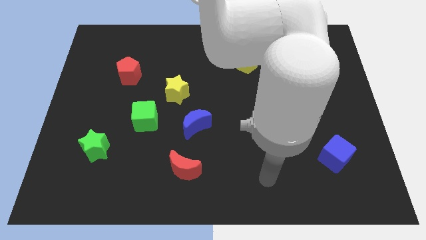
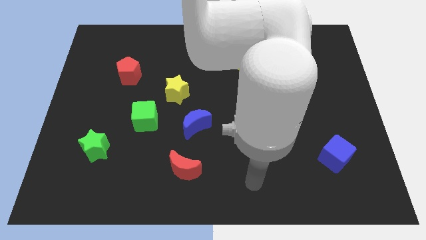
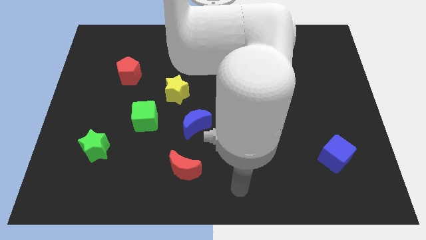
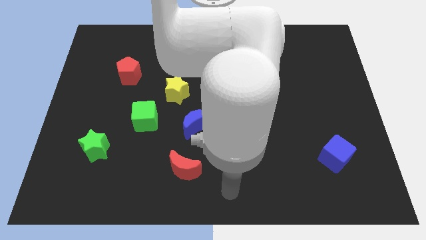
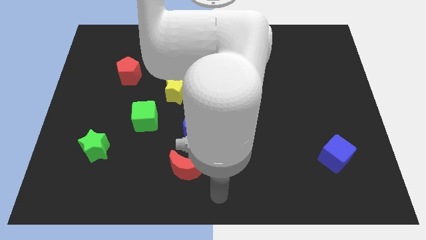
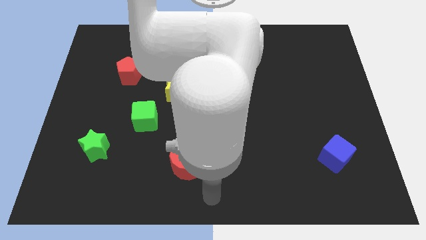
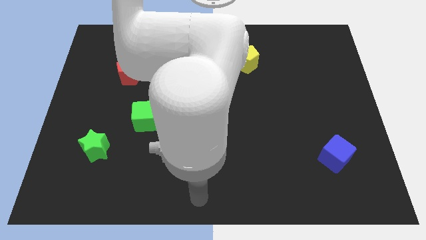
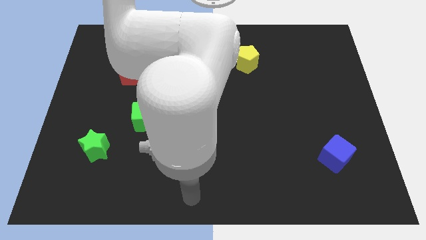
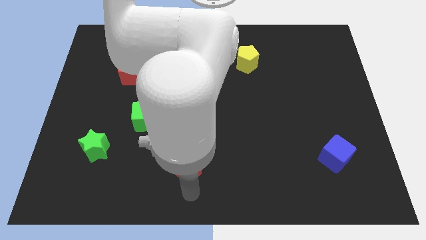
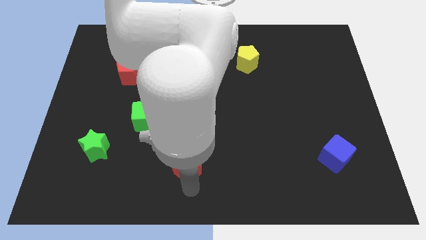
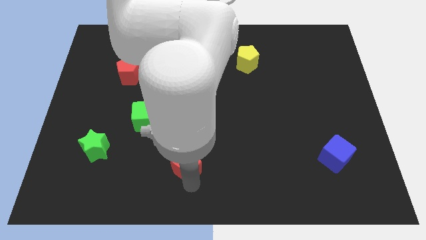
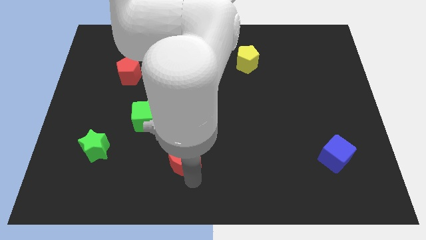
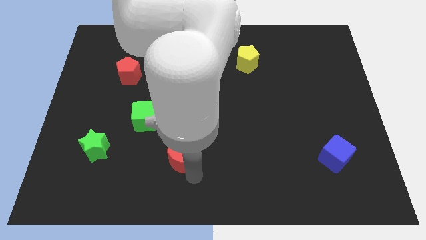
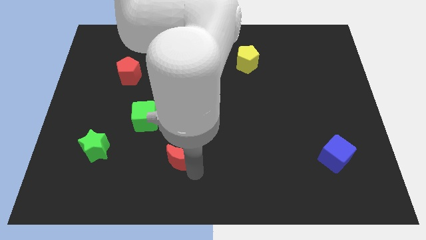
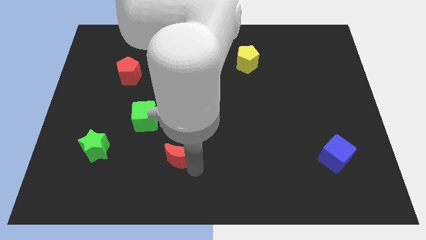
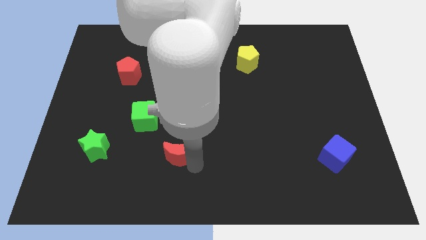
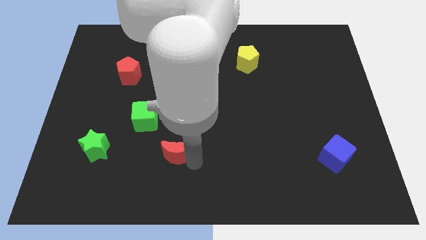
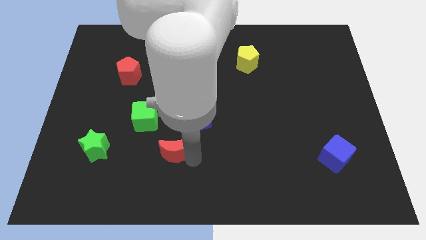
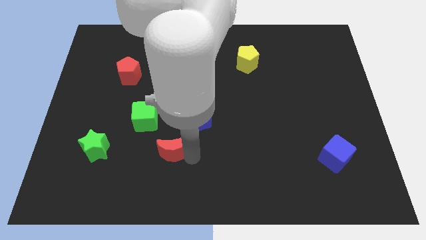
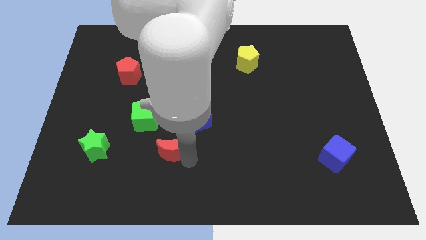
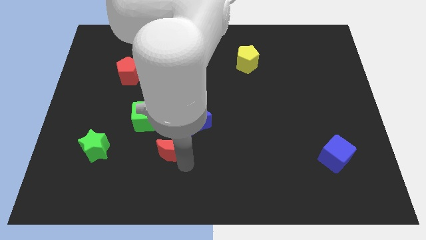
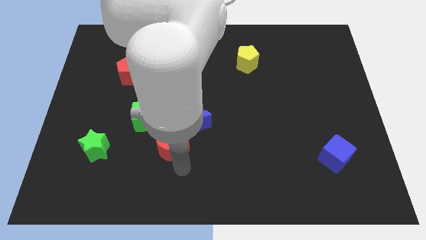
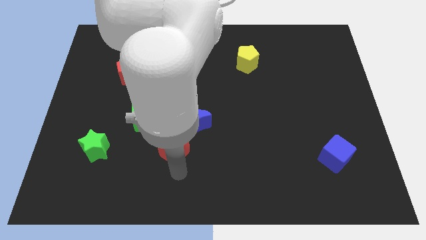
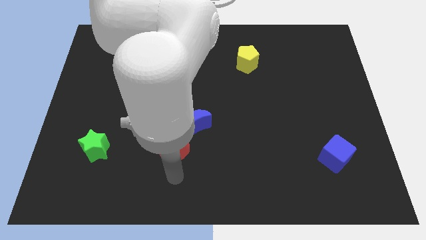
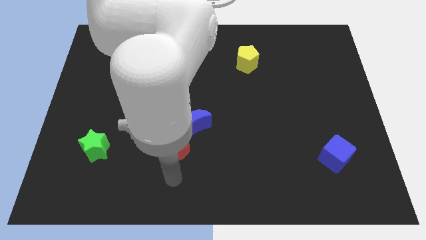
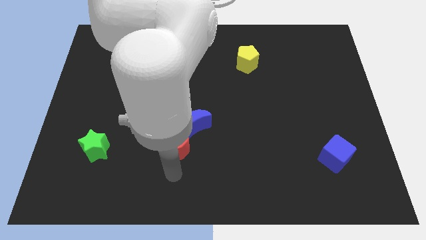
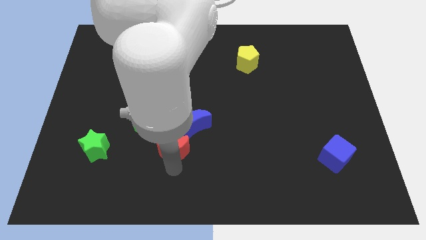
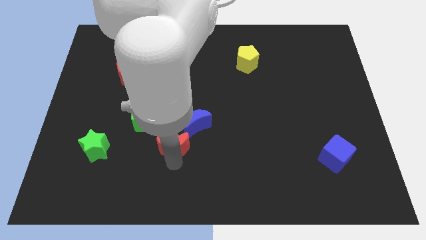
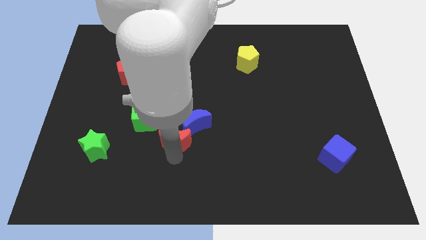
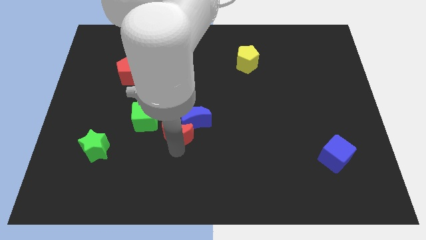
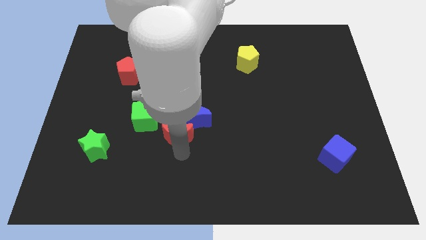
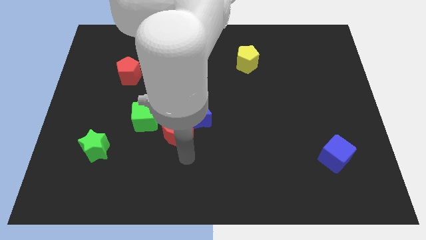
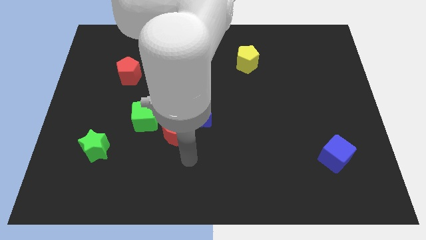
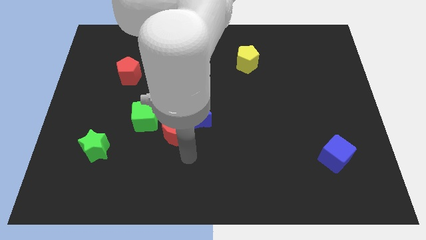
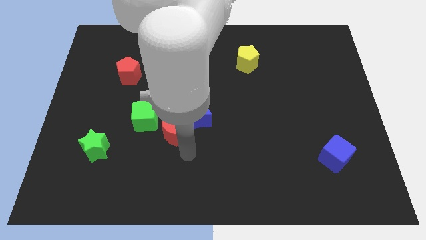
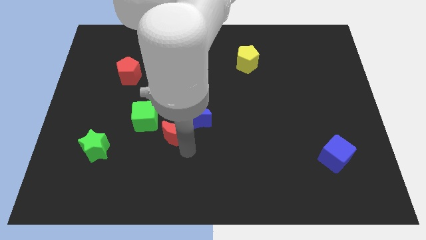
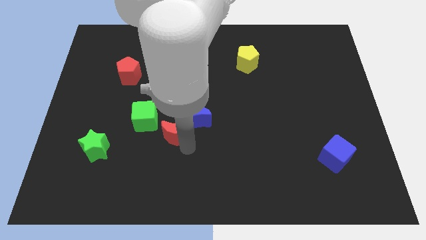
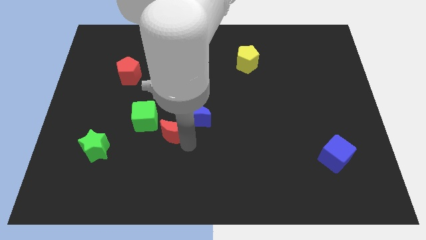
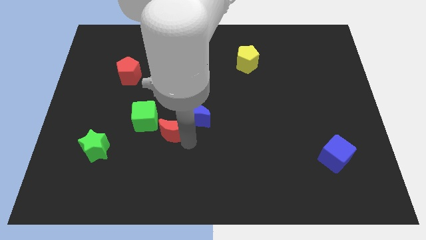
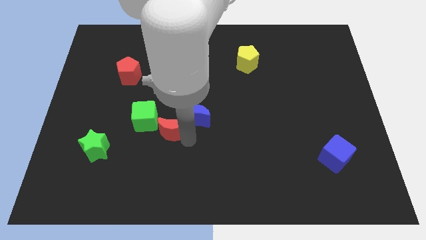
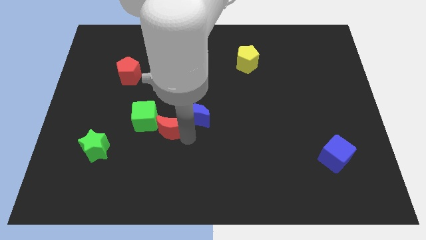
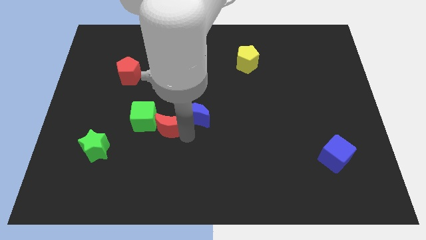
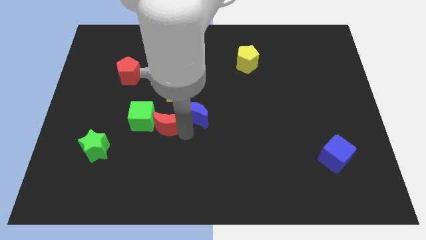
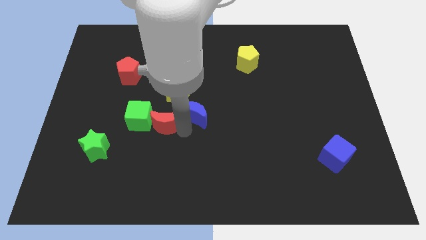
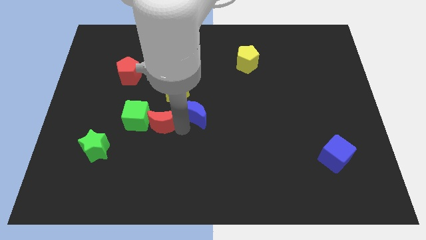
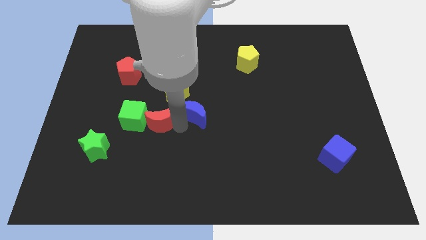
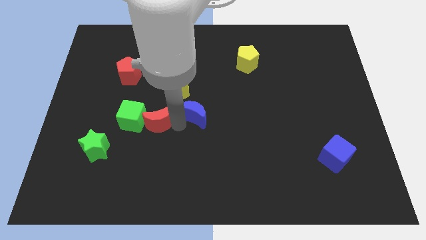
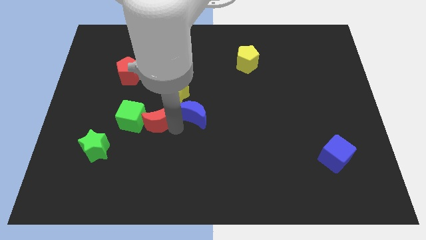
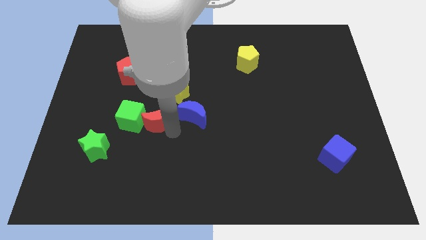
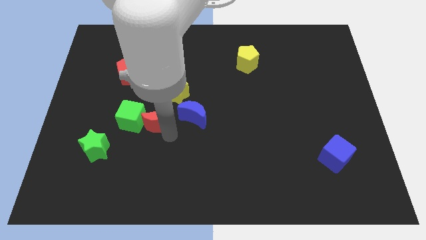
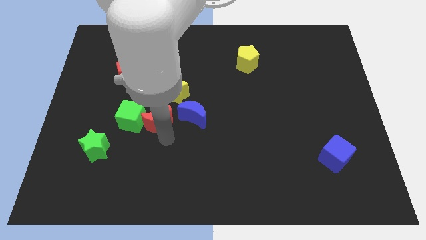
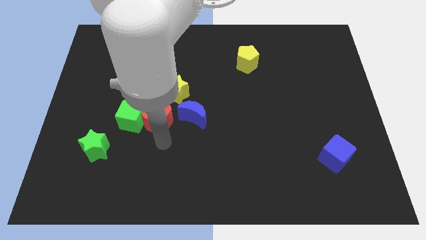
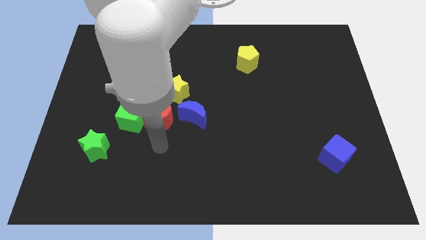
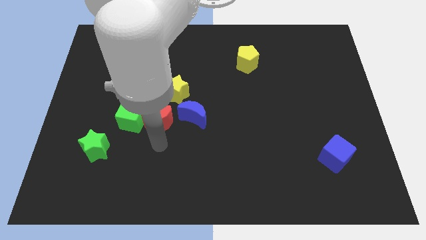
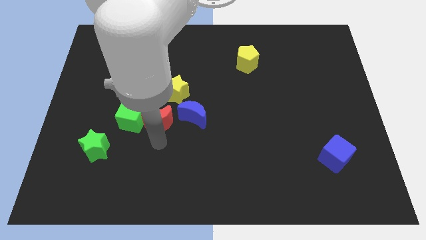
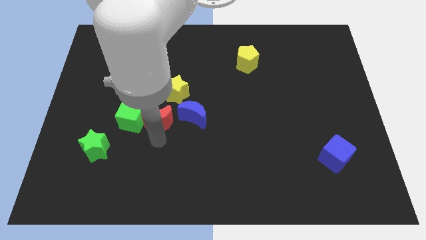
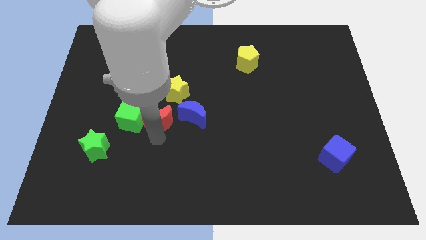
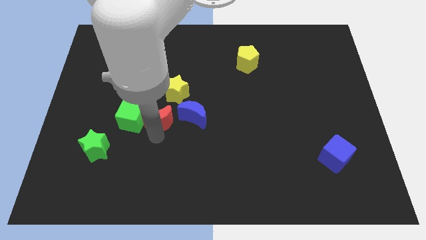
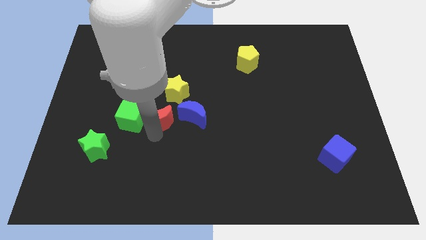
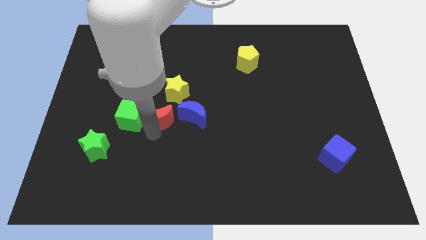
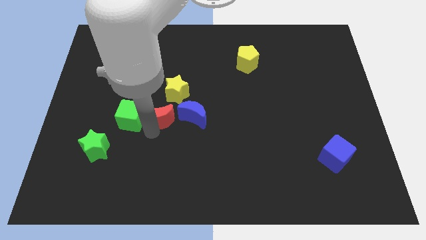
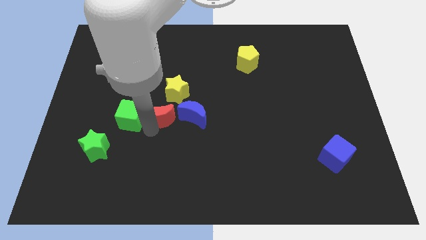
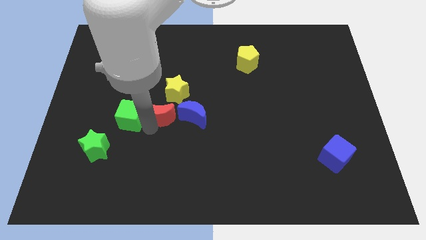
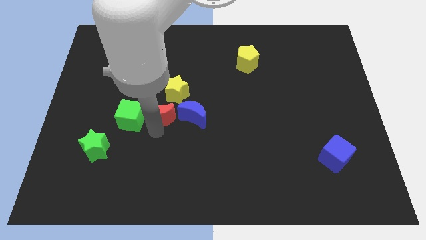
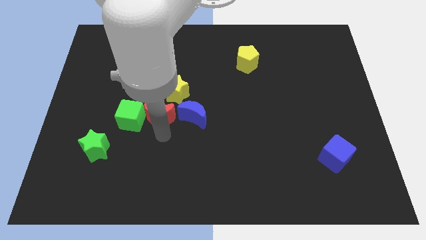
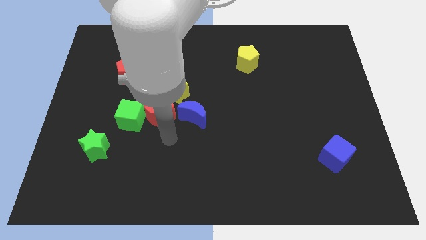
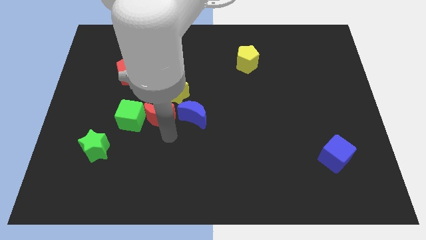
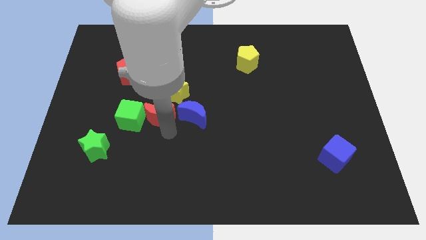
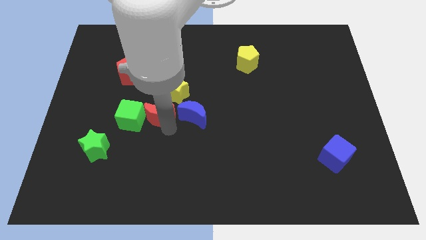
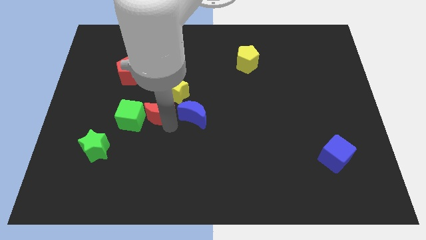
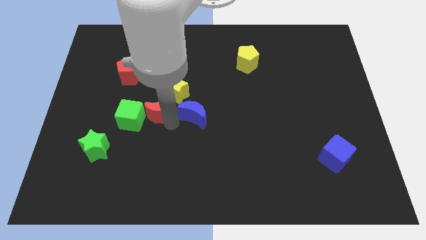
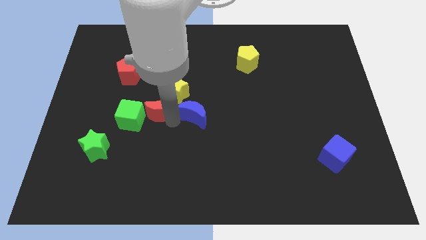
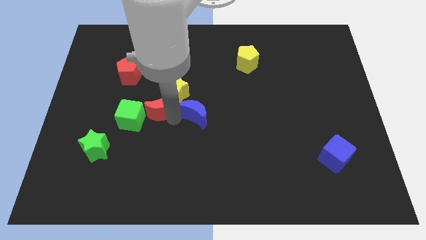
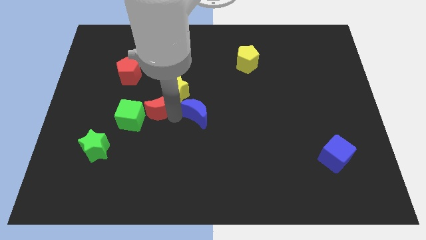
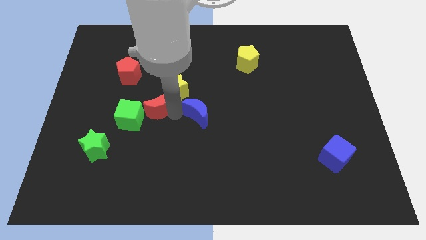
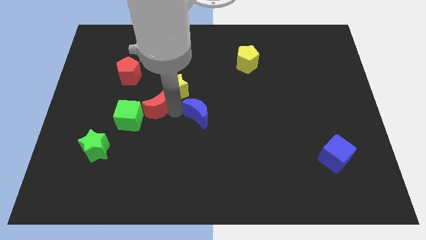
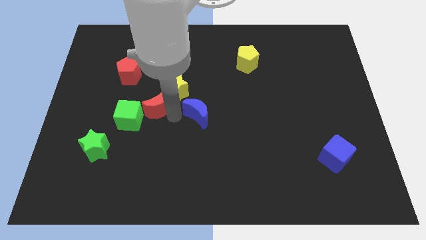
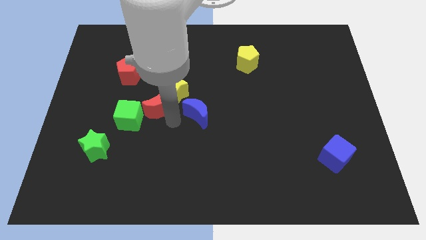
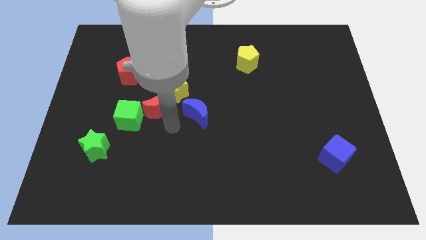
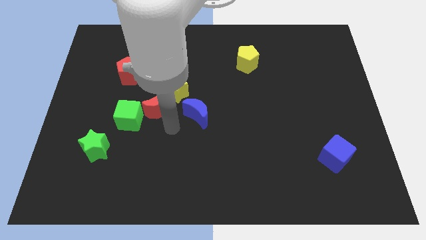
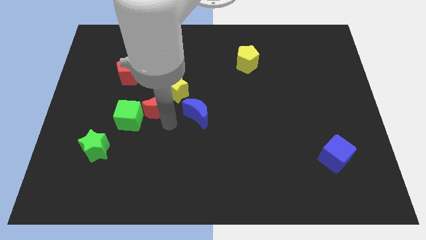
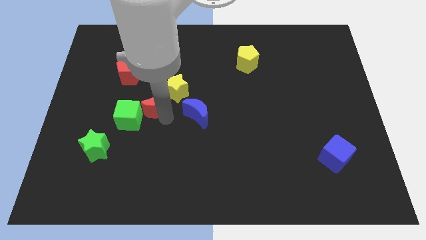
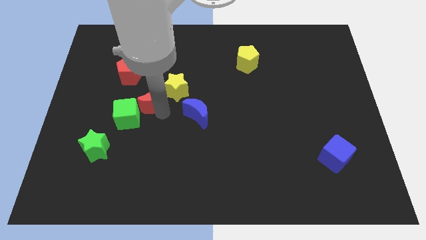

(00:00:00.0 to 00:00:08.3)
push the red moon diagonally down and to the right of the red pentagon
